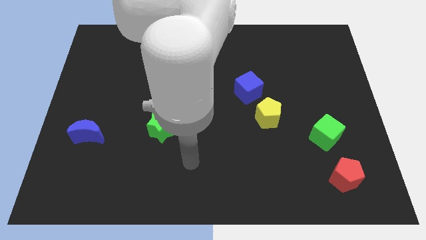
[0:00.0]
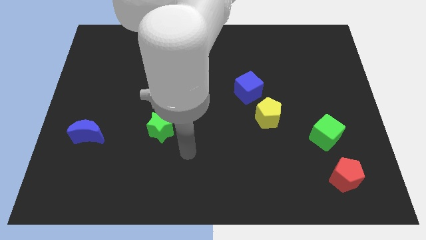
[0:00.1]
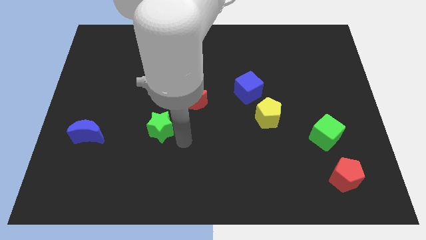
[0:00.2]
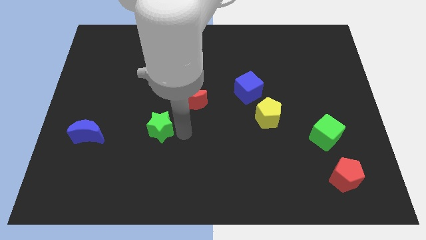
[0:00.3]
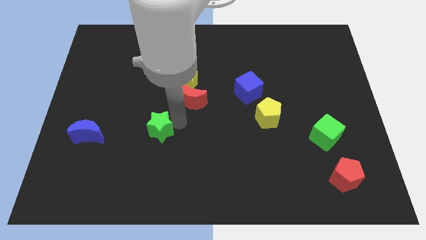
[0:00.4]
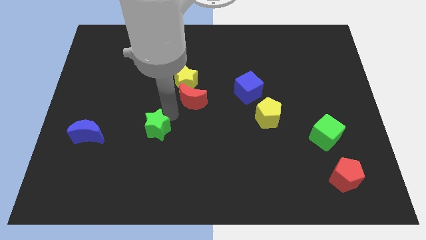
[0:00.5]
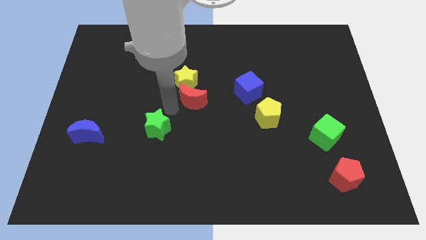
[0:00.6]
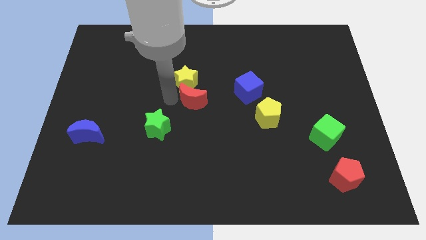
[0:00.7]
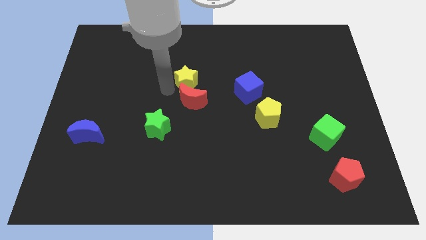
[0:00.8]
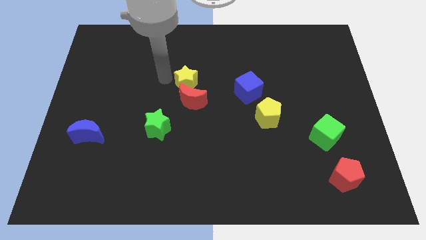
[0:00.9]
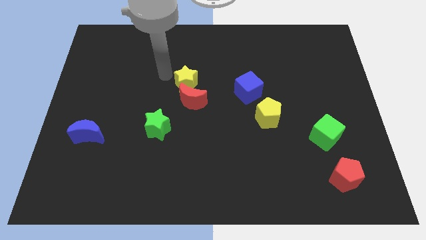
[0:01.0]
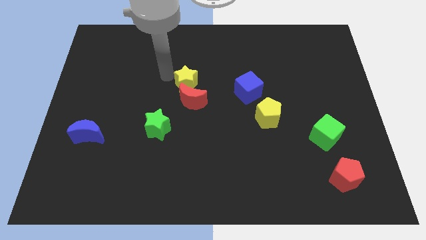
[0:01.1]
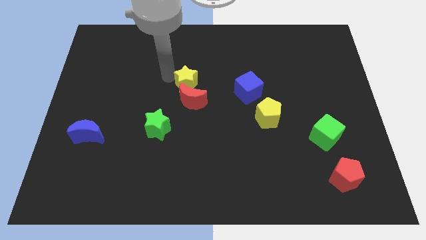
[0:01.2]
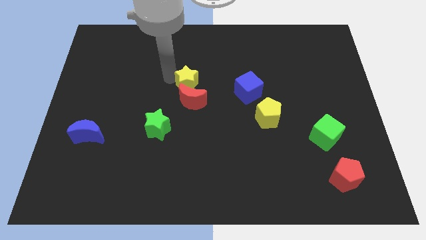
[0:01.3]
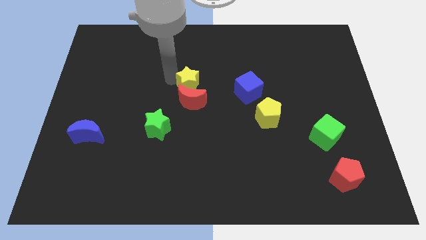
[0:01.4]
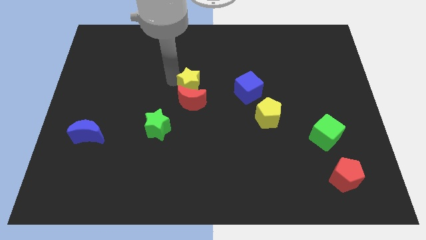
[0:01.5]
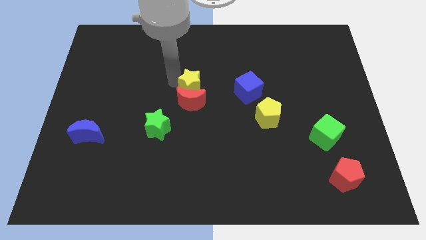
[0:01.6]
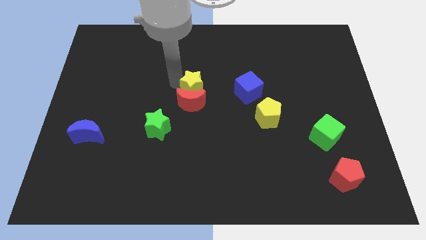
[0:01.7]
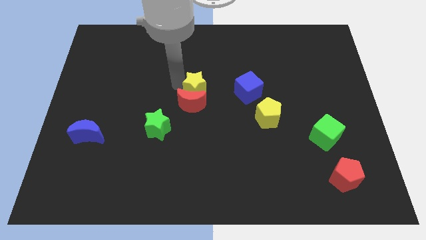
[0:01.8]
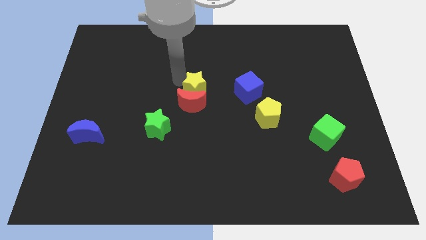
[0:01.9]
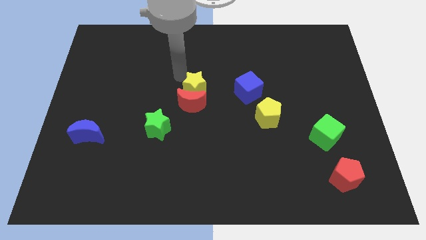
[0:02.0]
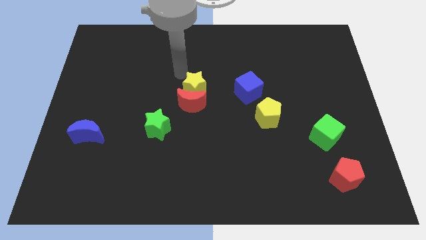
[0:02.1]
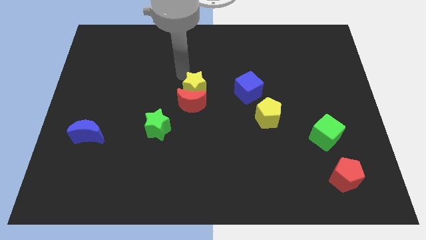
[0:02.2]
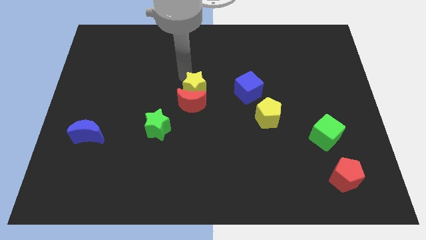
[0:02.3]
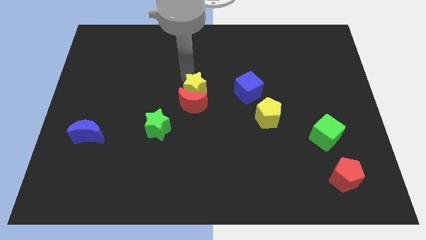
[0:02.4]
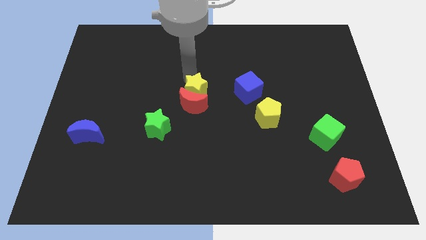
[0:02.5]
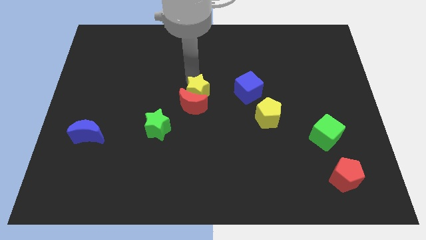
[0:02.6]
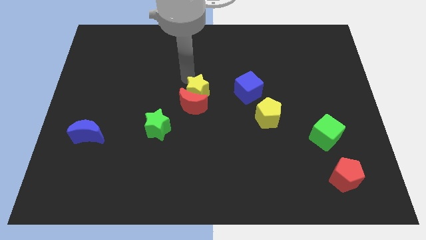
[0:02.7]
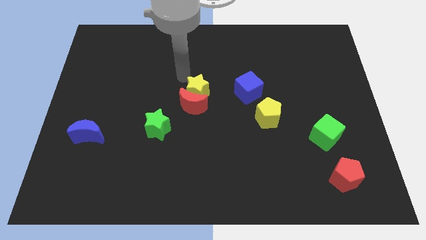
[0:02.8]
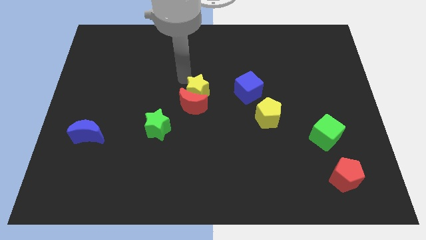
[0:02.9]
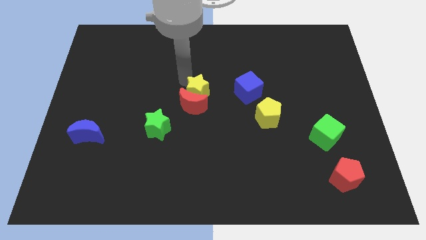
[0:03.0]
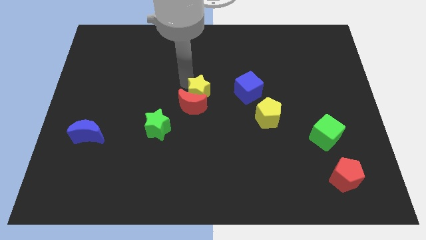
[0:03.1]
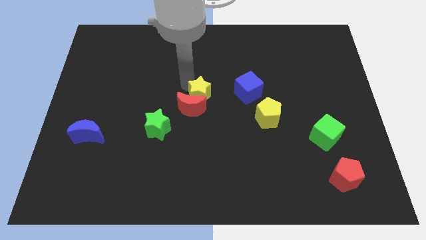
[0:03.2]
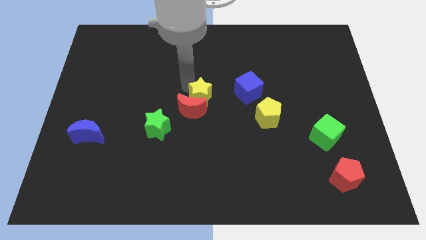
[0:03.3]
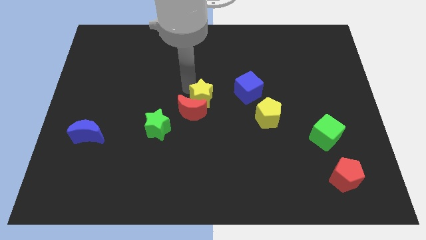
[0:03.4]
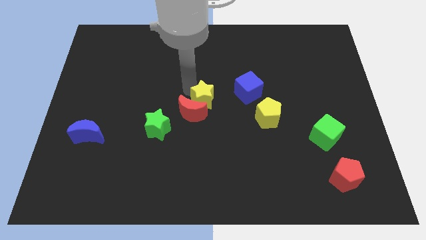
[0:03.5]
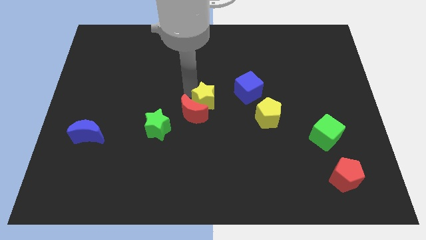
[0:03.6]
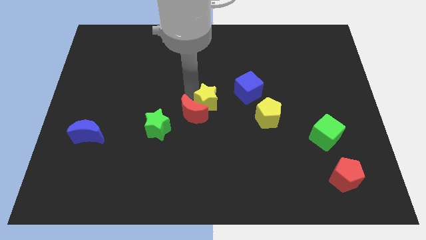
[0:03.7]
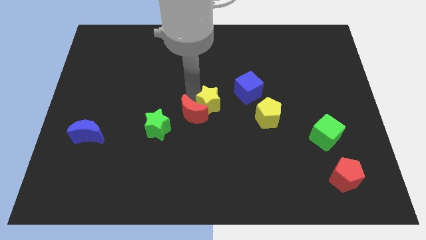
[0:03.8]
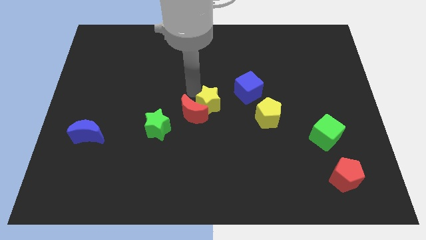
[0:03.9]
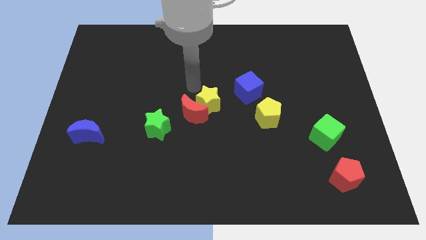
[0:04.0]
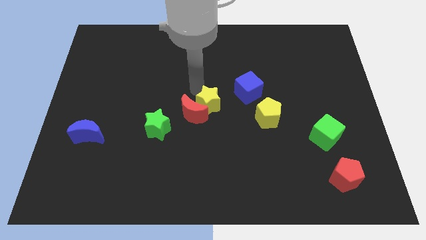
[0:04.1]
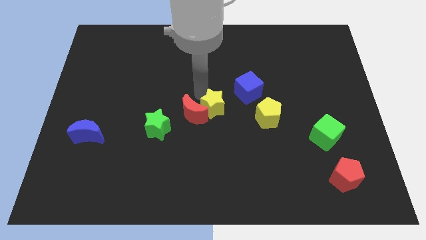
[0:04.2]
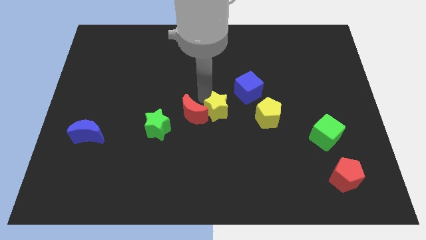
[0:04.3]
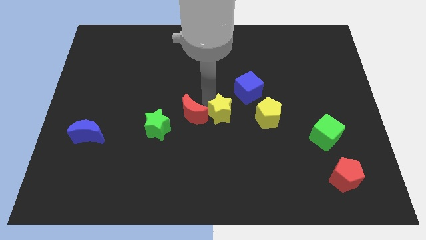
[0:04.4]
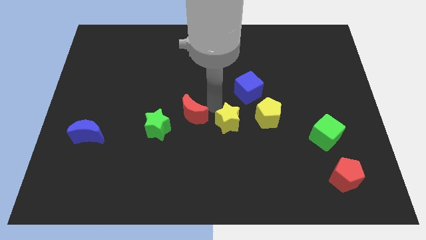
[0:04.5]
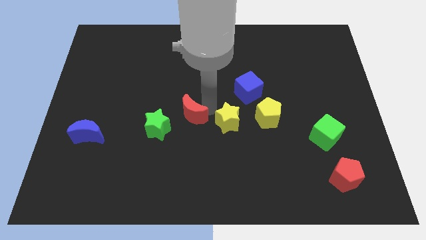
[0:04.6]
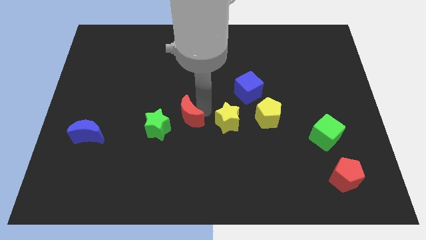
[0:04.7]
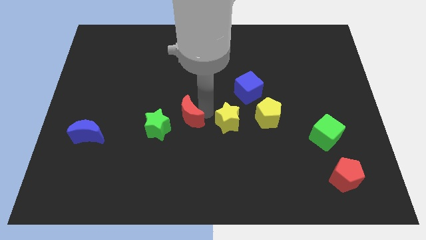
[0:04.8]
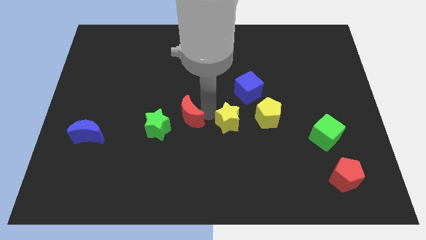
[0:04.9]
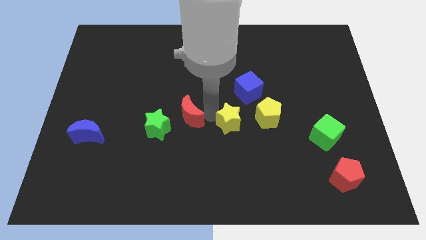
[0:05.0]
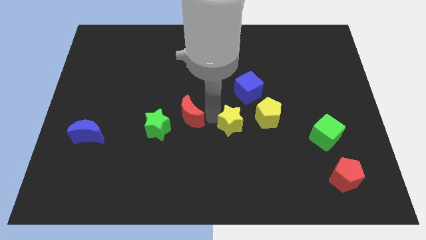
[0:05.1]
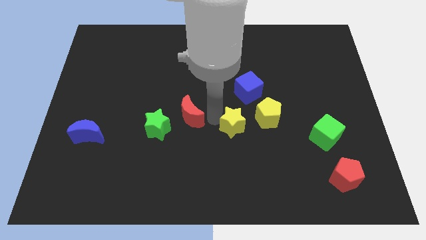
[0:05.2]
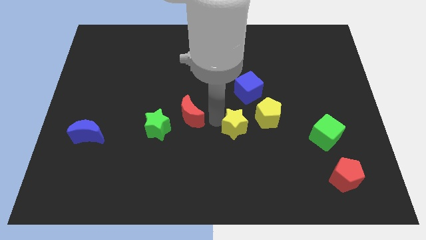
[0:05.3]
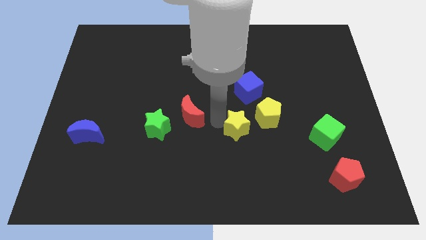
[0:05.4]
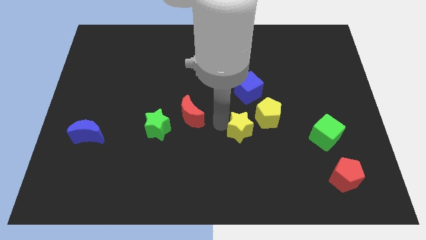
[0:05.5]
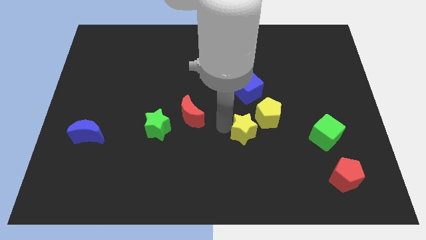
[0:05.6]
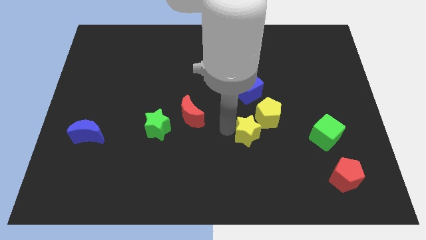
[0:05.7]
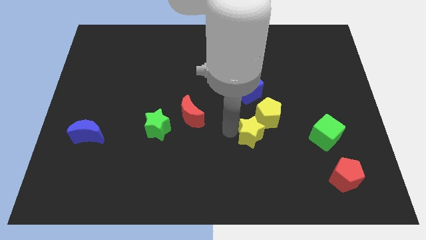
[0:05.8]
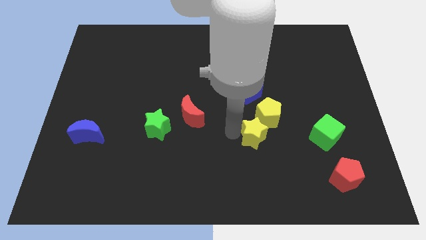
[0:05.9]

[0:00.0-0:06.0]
slide the yellow star to the left side of the green cube

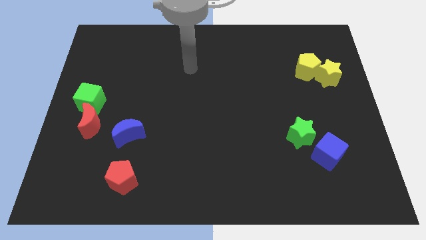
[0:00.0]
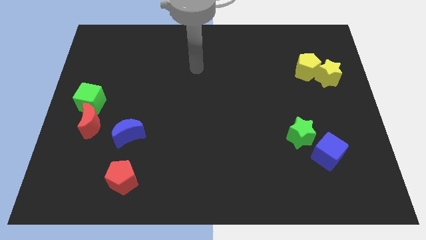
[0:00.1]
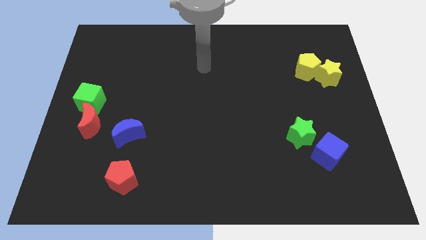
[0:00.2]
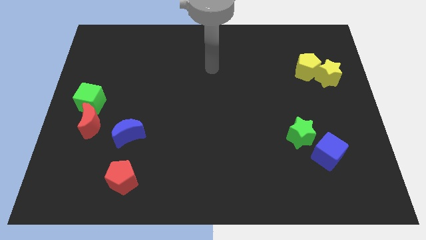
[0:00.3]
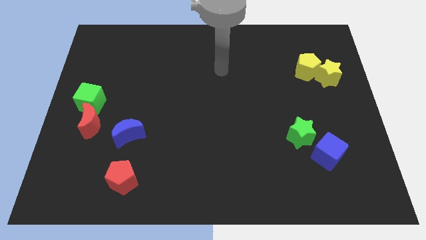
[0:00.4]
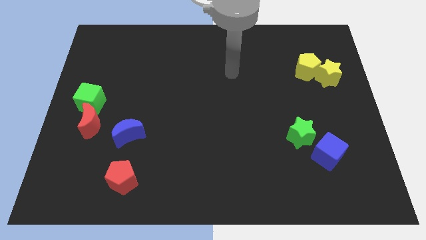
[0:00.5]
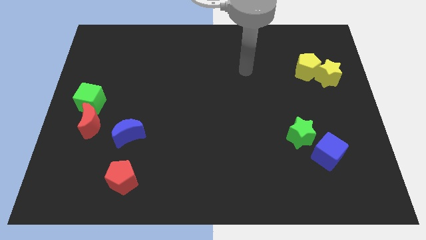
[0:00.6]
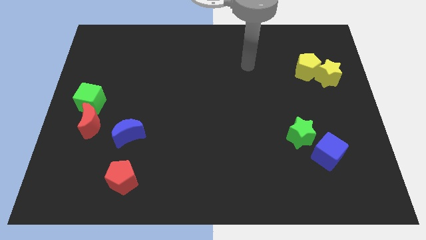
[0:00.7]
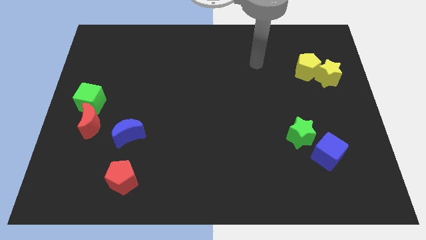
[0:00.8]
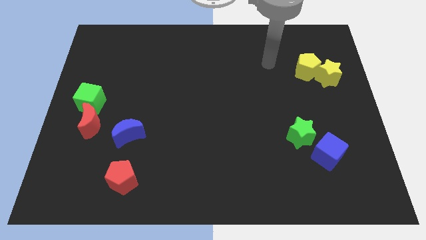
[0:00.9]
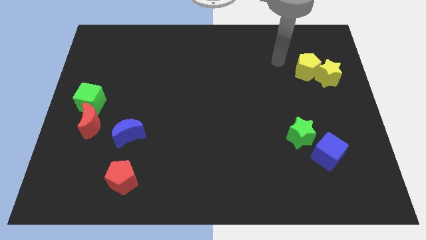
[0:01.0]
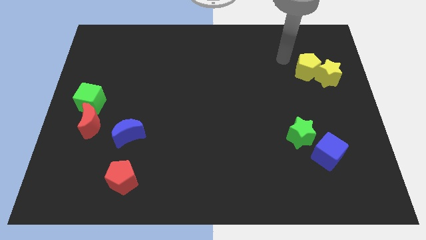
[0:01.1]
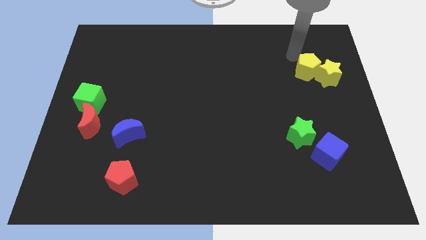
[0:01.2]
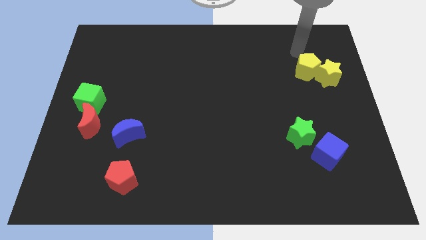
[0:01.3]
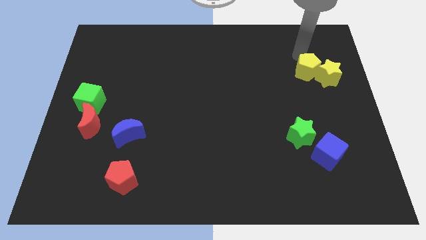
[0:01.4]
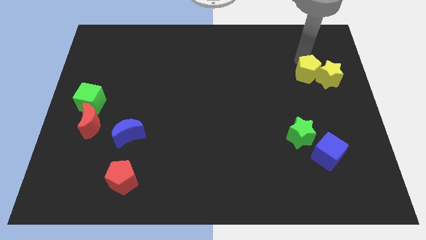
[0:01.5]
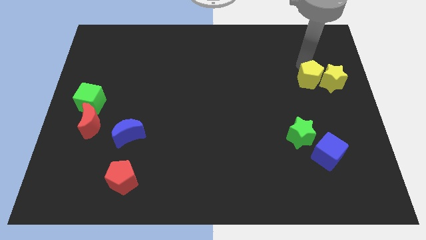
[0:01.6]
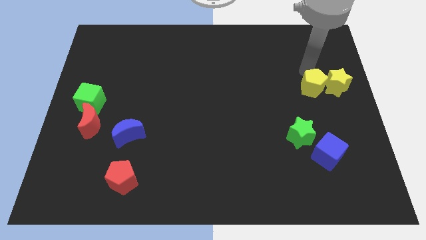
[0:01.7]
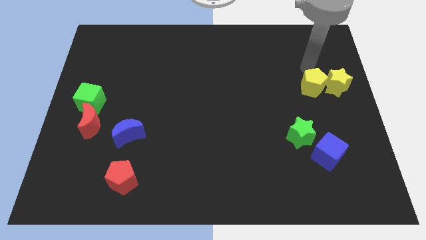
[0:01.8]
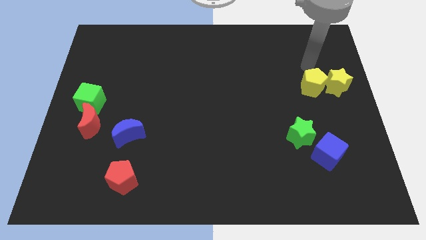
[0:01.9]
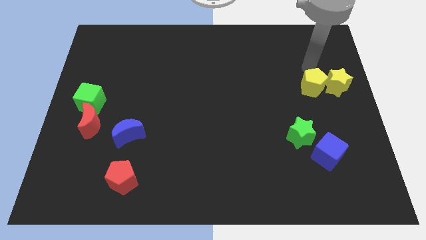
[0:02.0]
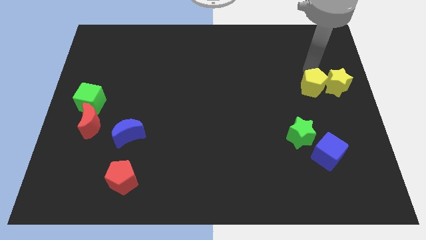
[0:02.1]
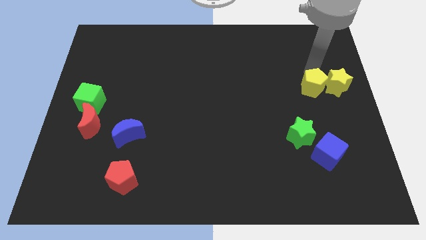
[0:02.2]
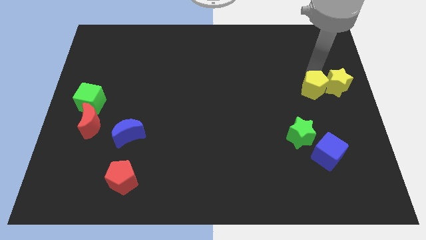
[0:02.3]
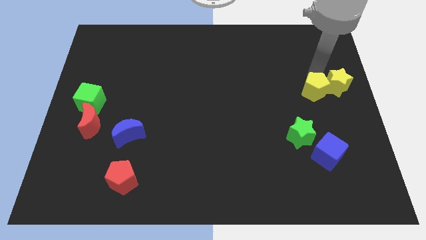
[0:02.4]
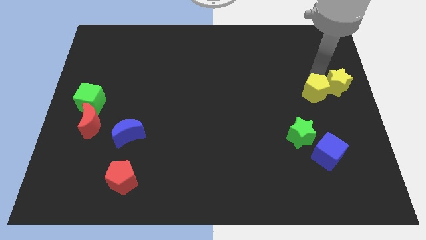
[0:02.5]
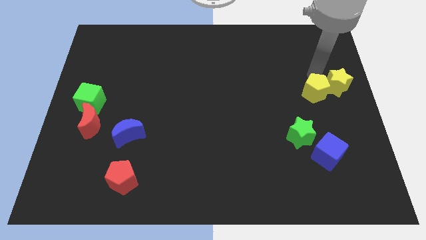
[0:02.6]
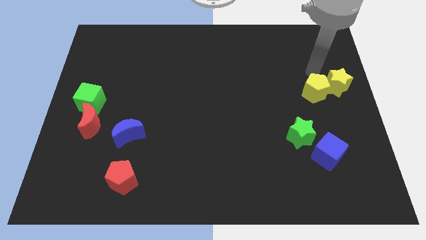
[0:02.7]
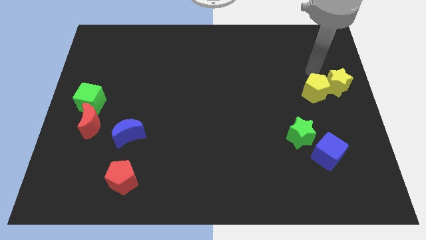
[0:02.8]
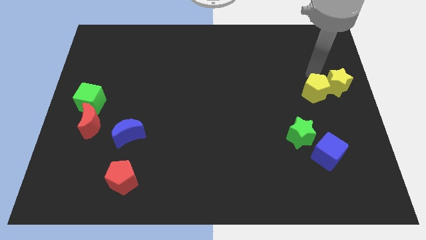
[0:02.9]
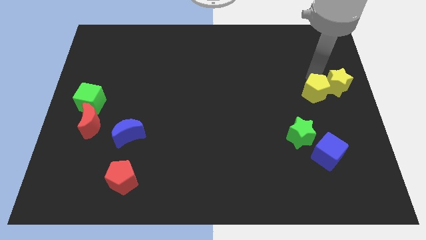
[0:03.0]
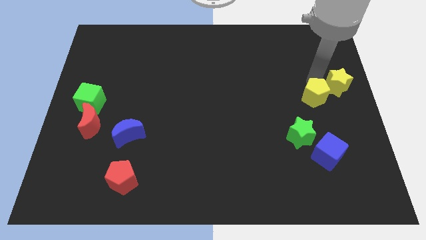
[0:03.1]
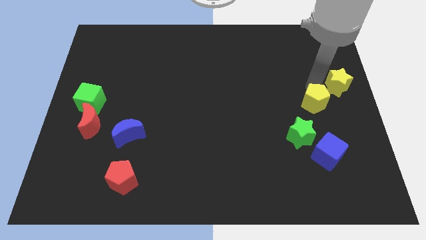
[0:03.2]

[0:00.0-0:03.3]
move the yellow pentagon diagonally up and to the right of the green star
